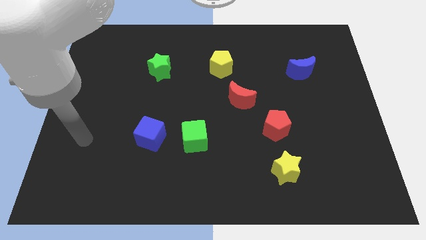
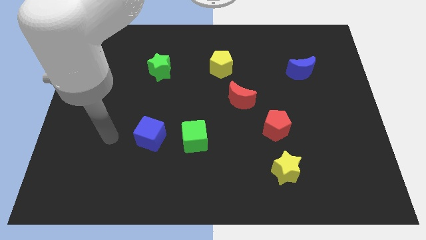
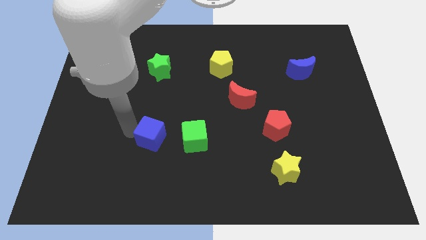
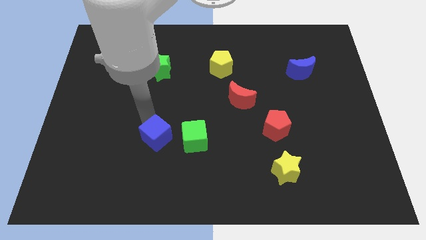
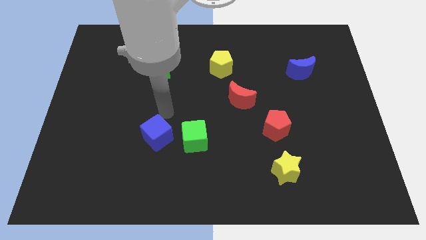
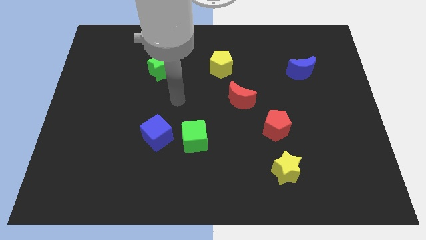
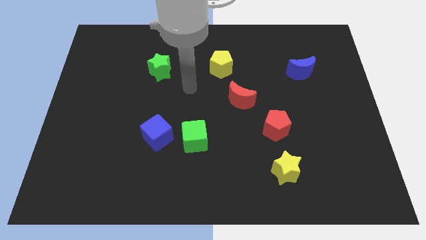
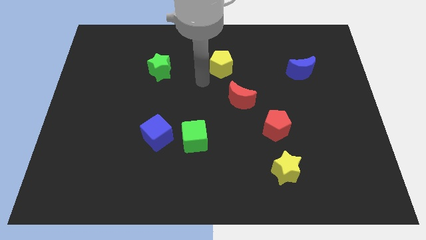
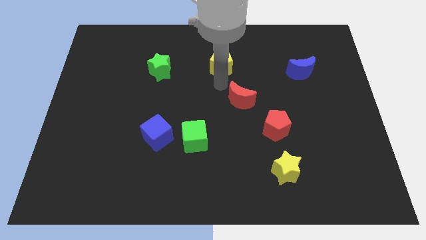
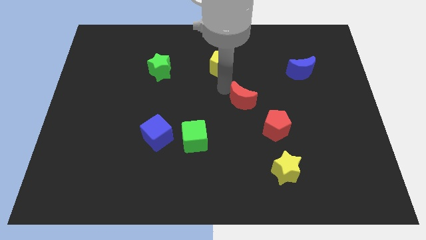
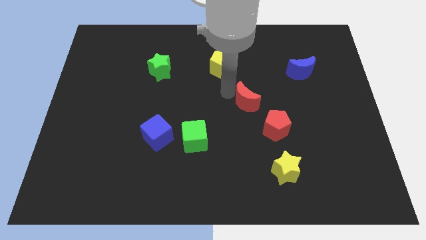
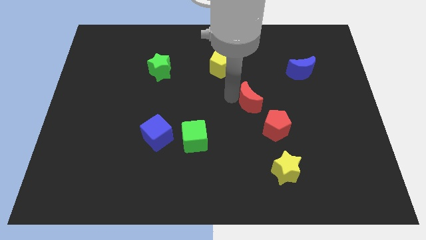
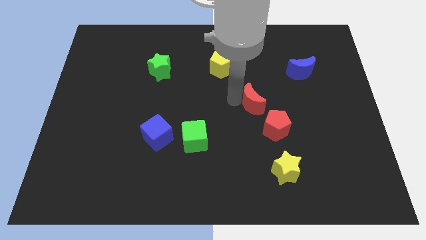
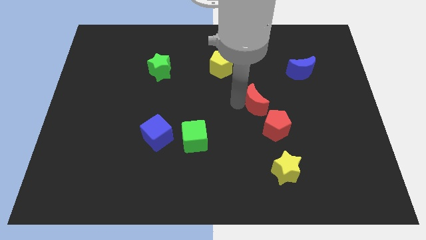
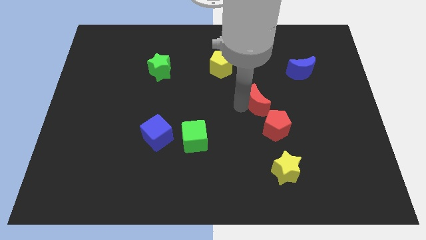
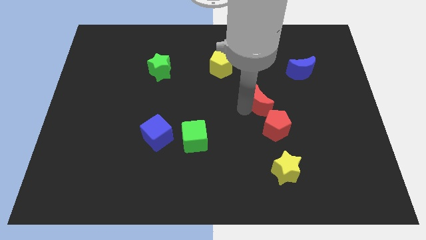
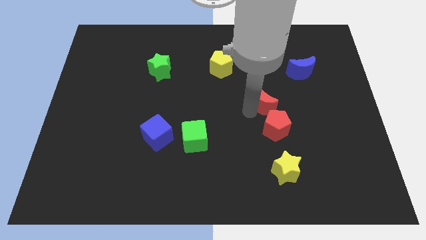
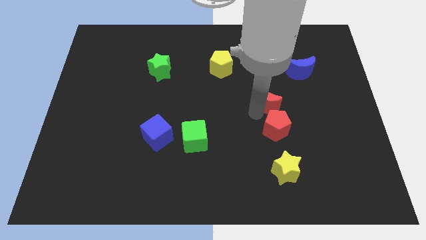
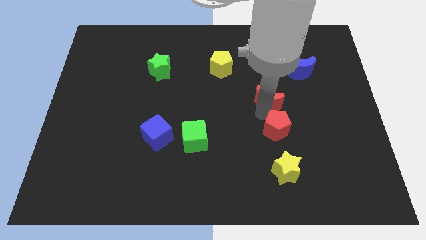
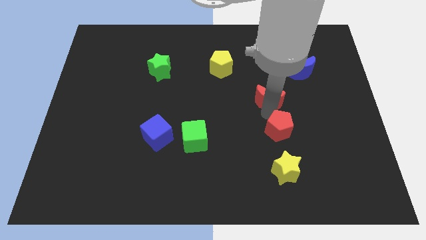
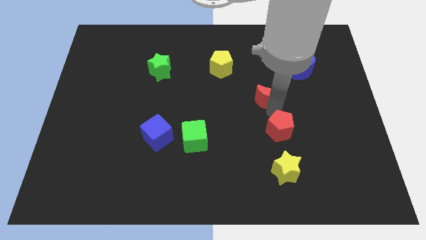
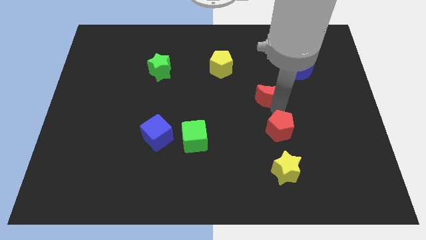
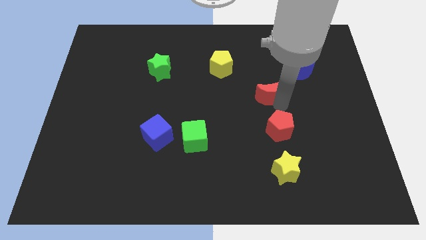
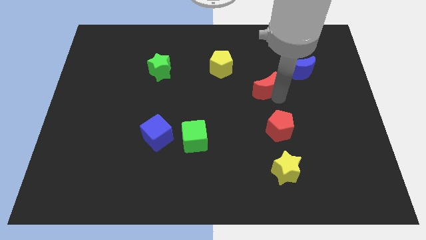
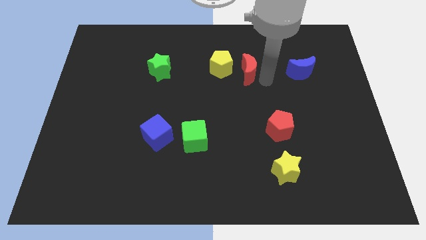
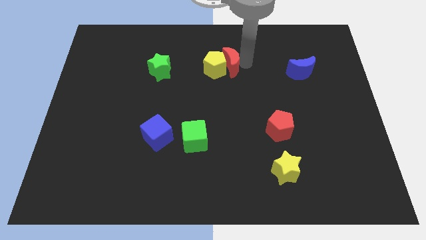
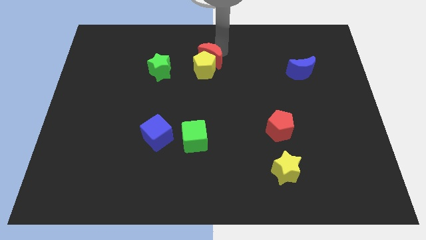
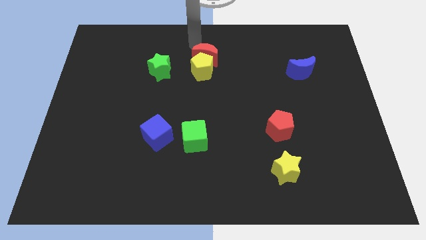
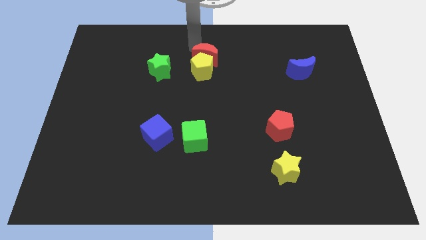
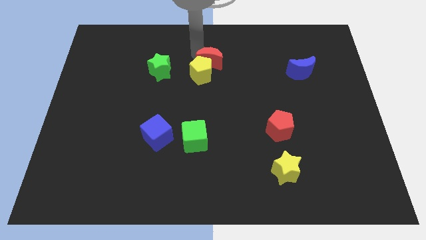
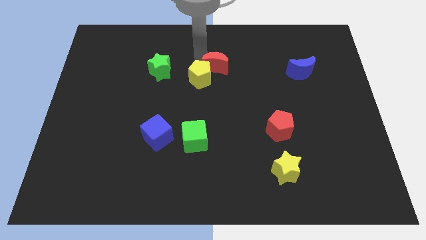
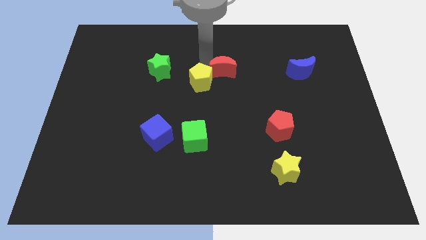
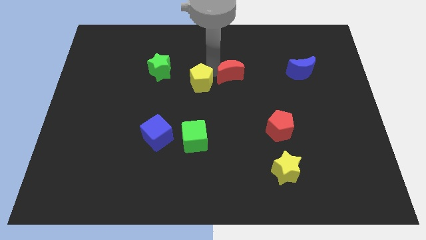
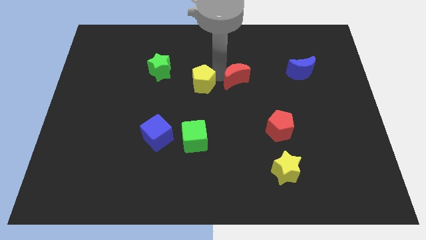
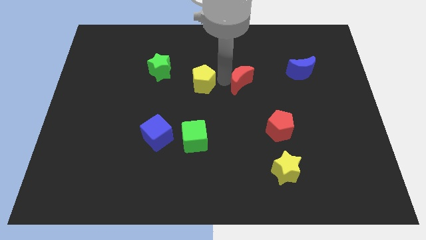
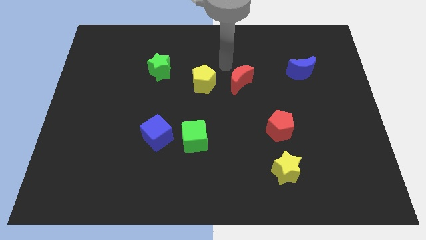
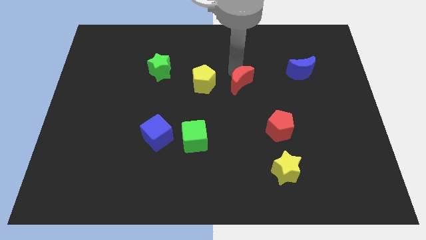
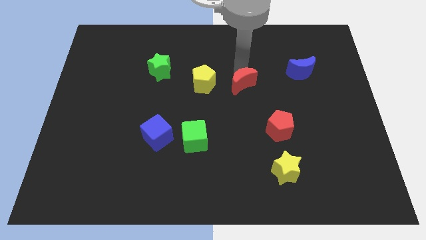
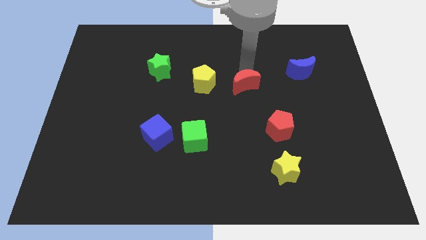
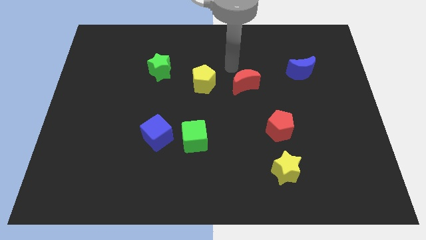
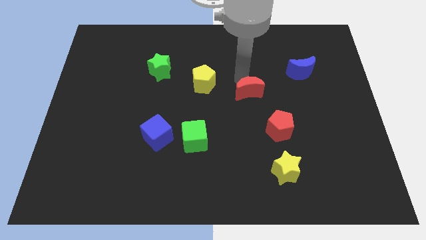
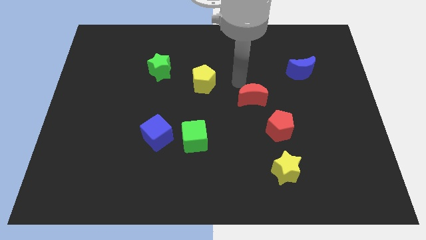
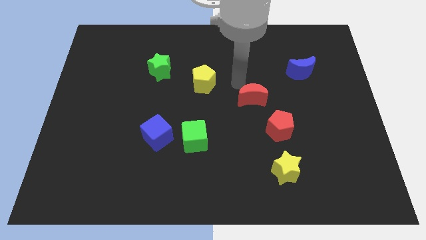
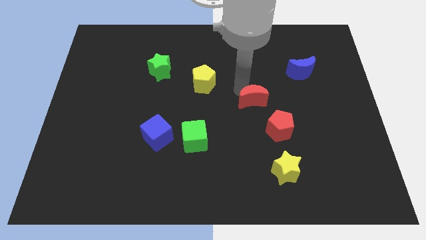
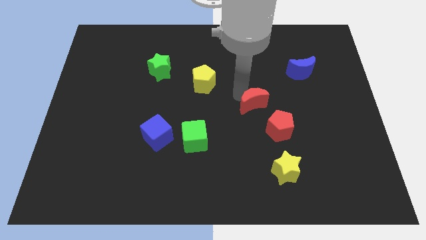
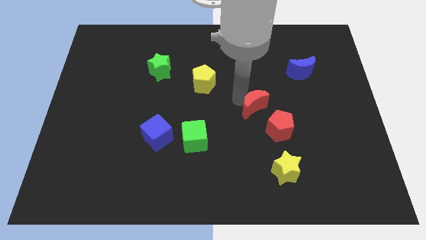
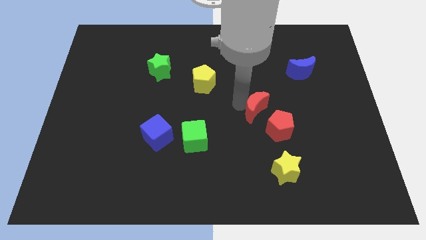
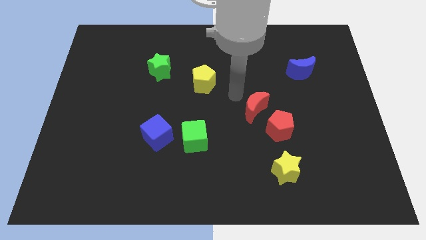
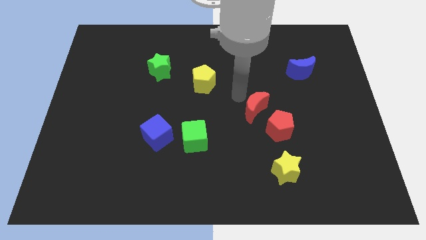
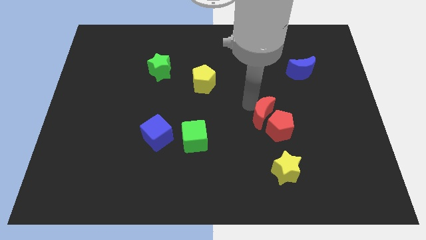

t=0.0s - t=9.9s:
slide the red moon towards the red pentagon

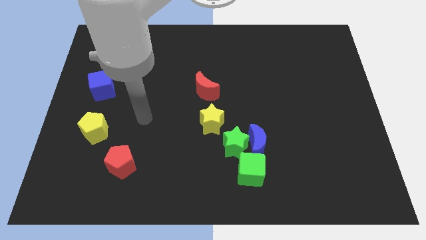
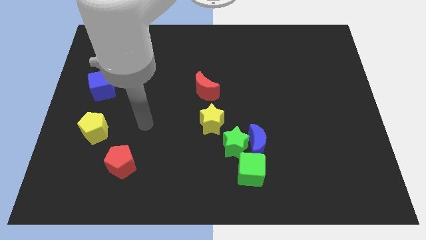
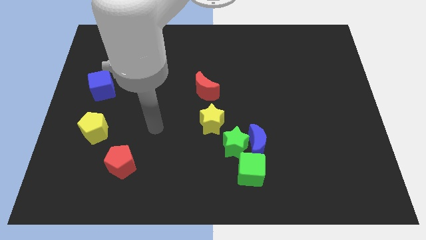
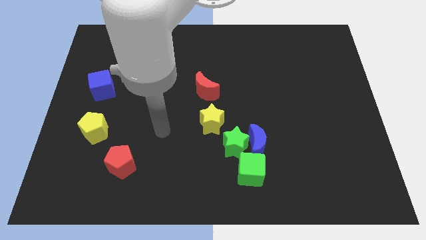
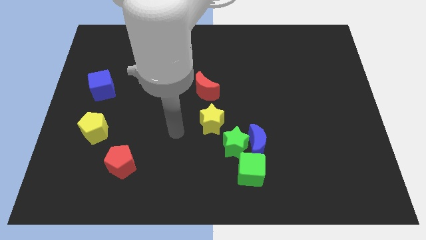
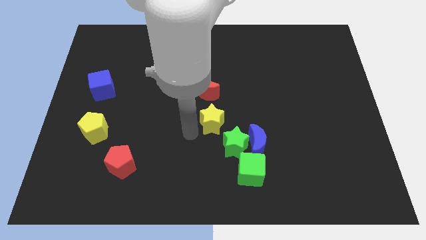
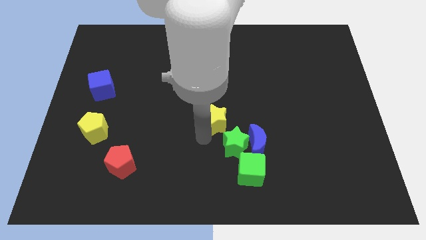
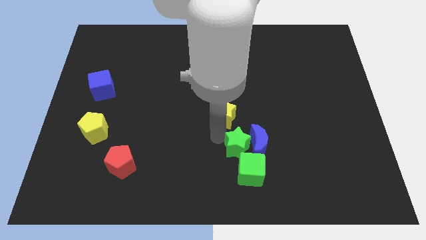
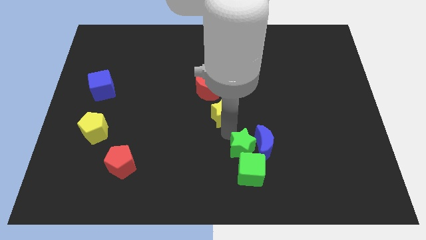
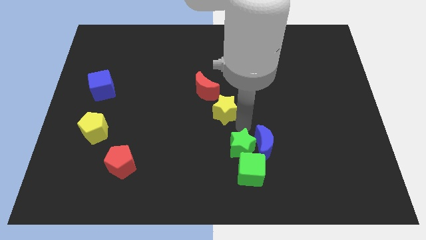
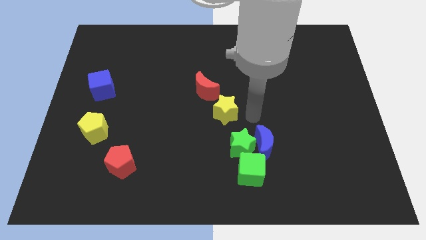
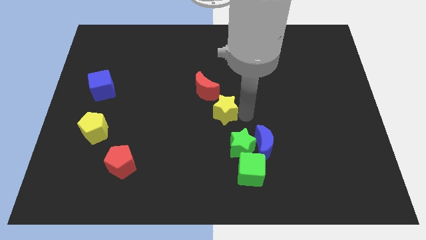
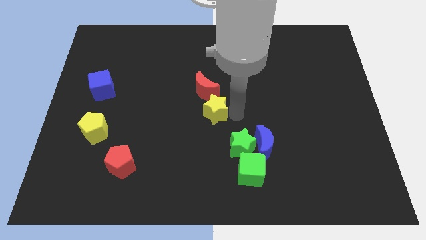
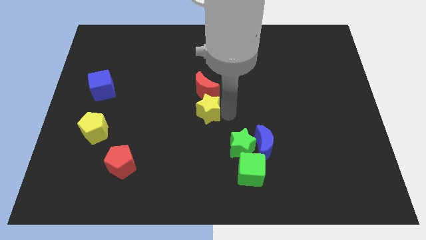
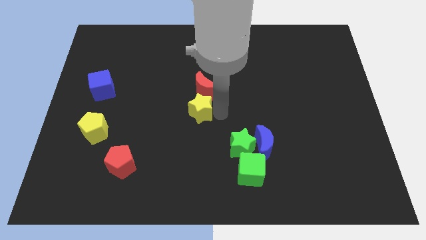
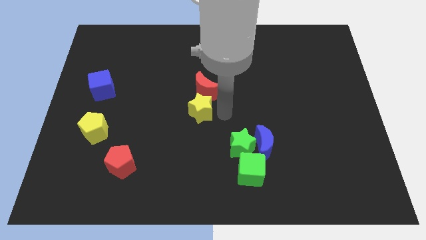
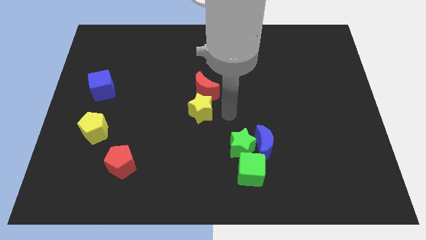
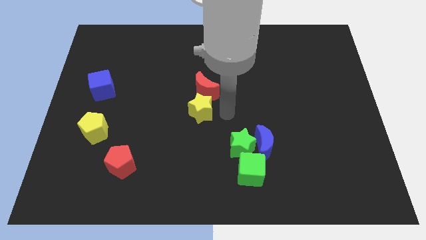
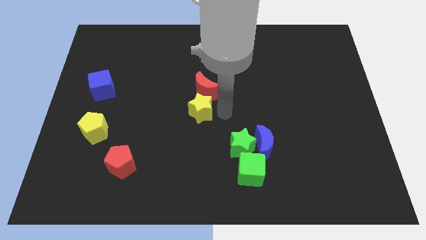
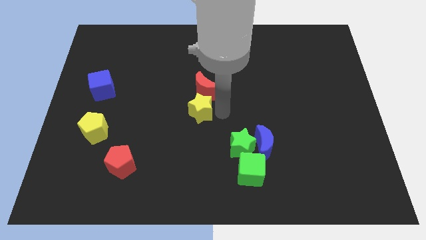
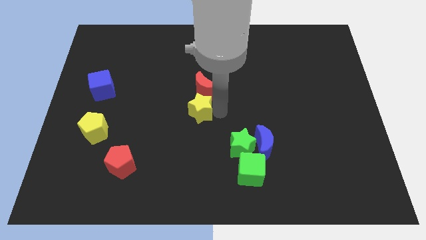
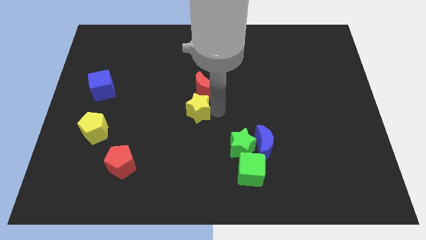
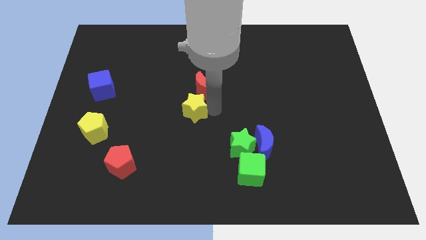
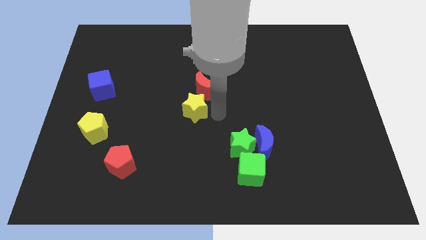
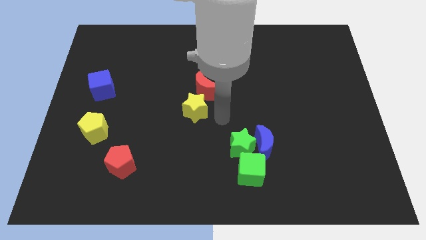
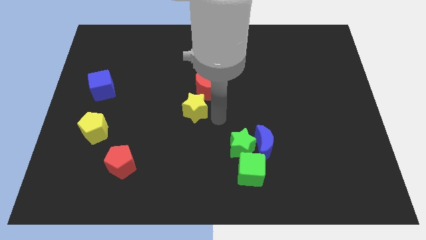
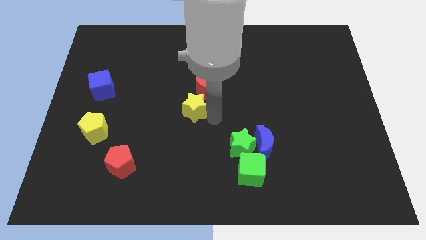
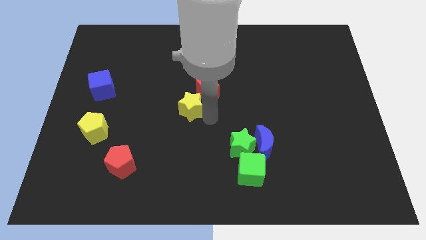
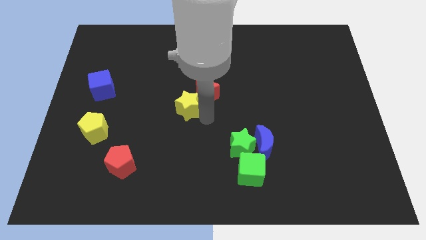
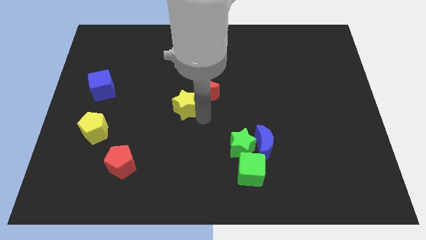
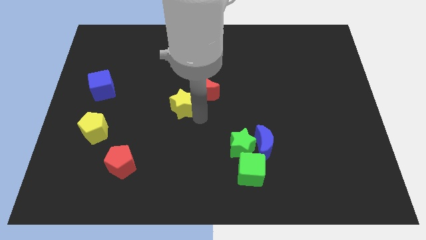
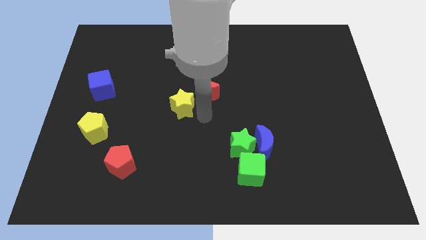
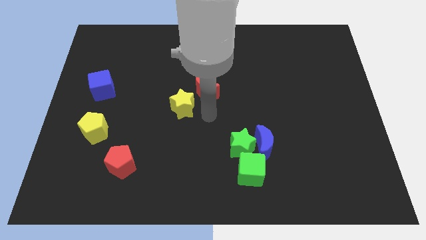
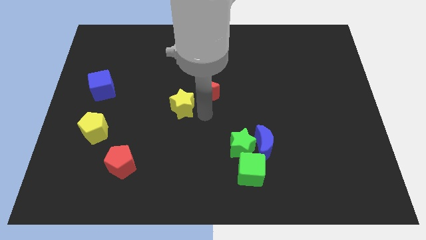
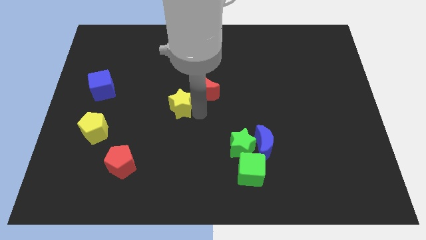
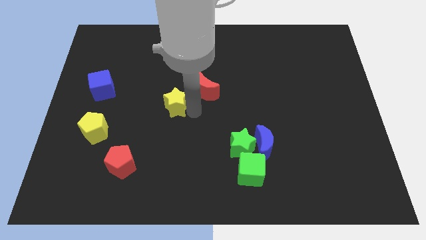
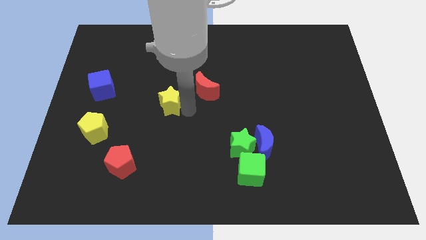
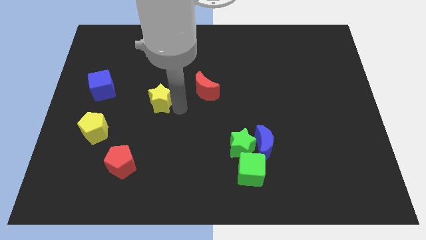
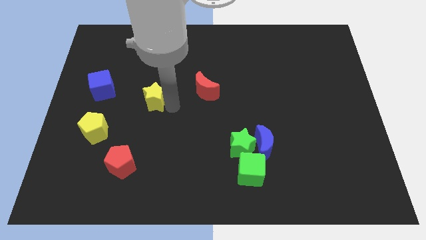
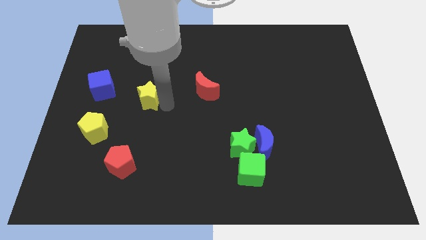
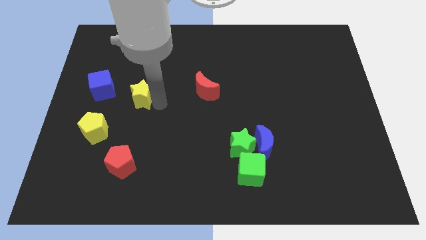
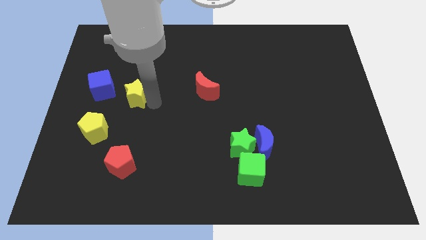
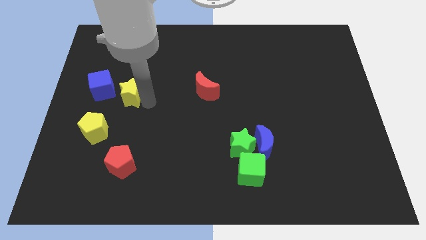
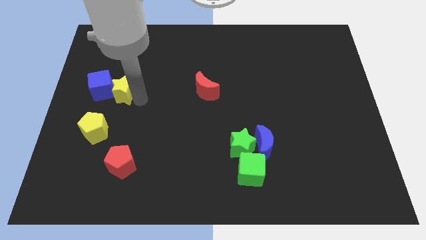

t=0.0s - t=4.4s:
slide the yellow star close to the blue cube
